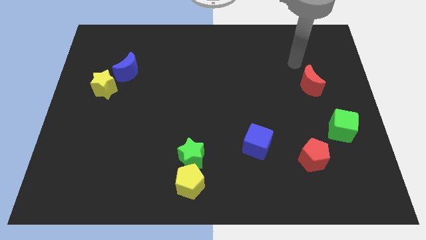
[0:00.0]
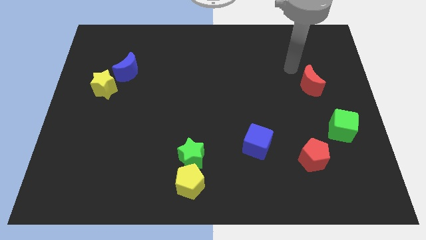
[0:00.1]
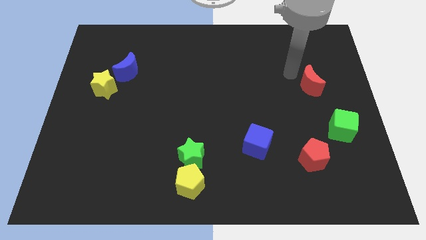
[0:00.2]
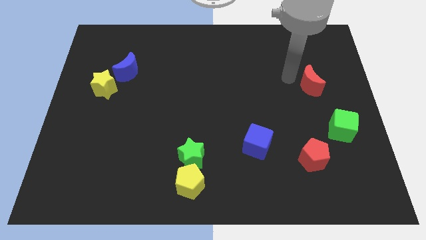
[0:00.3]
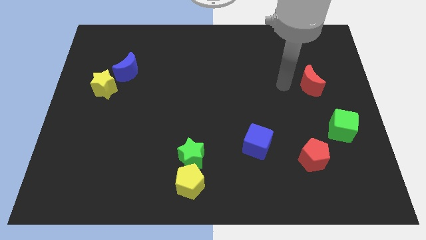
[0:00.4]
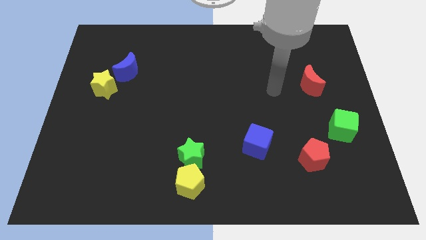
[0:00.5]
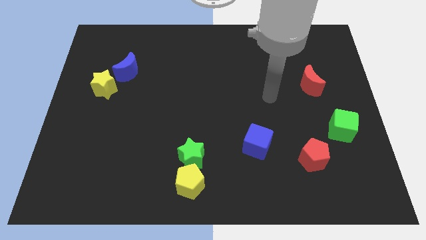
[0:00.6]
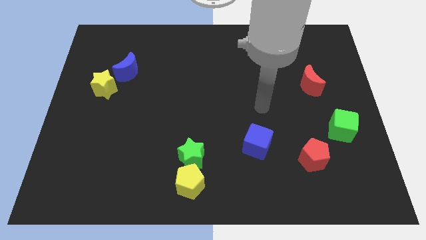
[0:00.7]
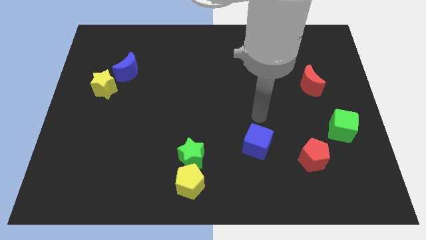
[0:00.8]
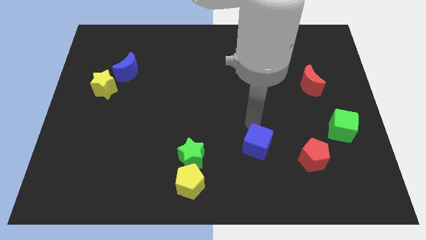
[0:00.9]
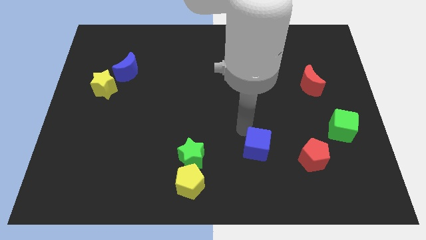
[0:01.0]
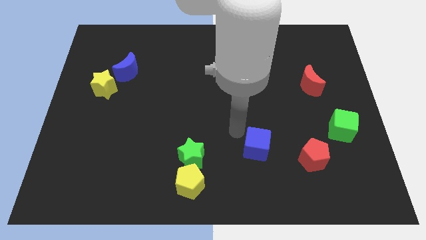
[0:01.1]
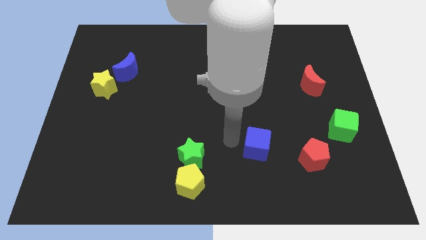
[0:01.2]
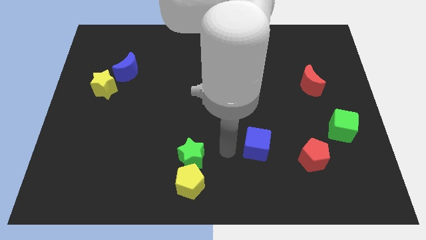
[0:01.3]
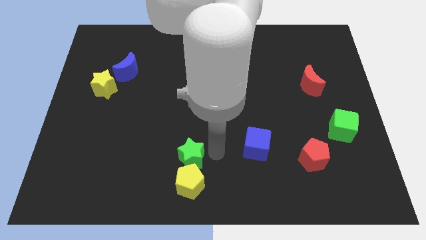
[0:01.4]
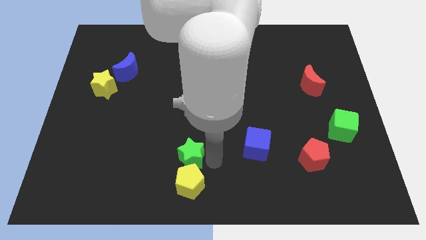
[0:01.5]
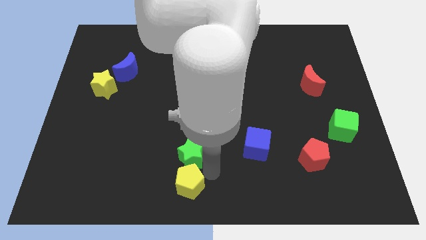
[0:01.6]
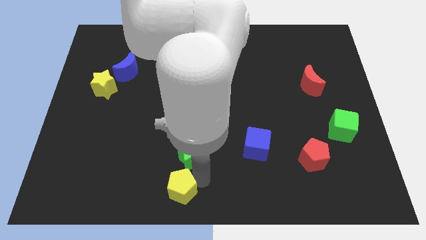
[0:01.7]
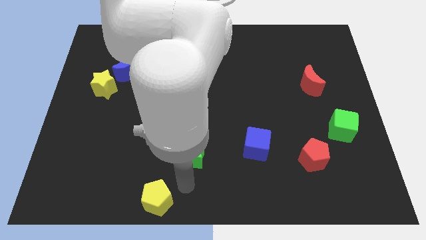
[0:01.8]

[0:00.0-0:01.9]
pull the green star apart from the yellow pentagon

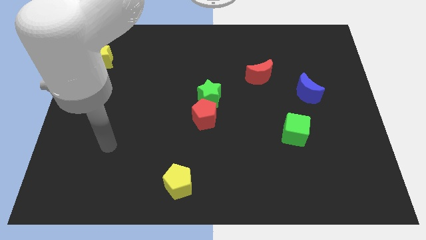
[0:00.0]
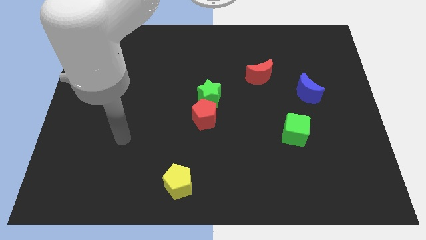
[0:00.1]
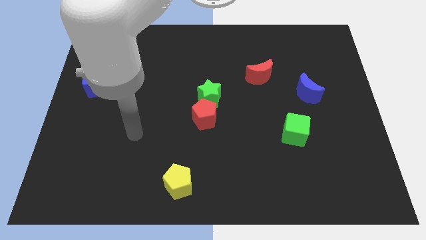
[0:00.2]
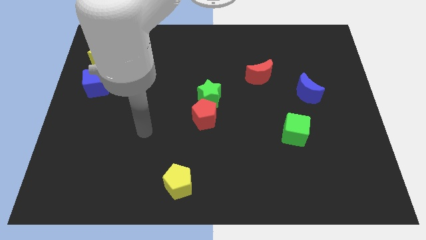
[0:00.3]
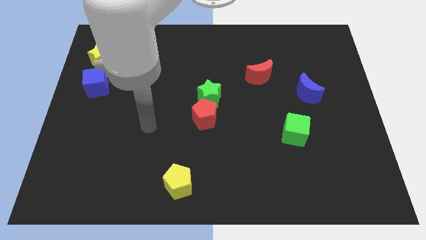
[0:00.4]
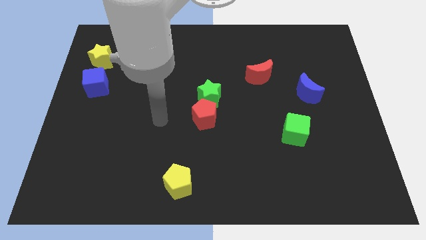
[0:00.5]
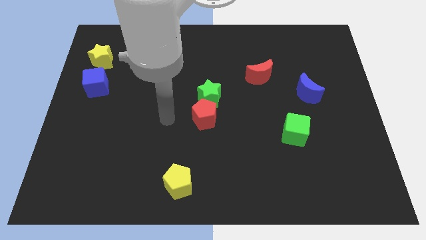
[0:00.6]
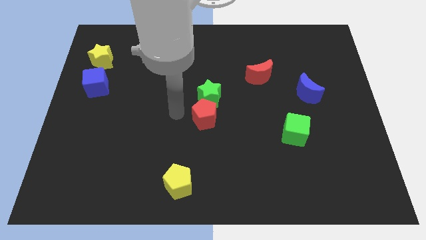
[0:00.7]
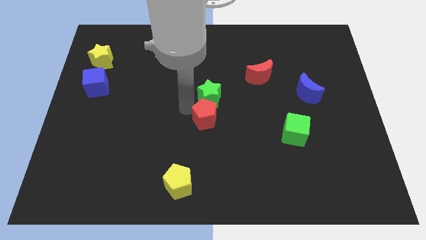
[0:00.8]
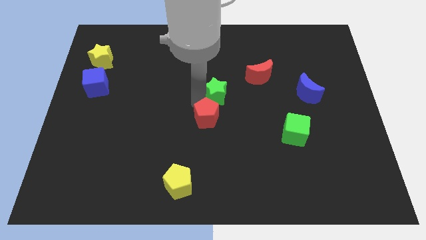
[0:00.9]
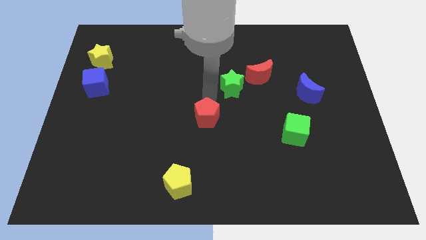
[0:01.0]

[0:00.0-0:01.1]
move the red pentagon away from the green star

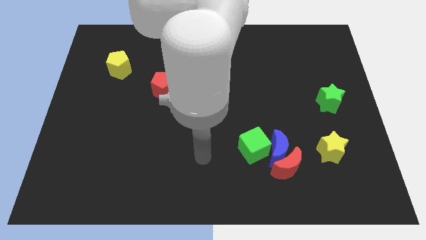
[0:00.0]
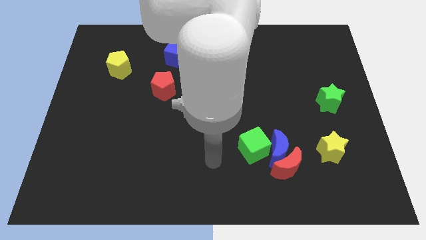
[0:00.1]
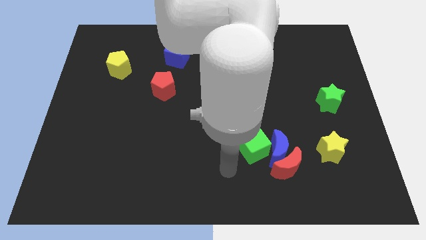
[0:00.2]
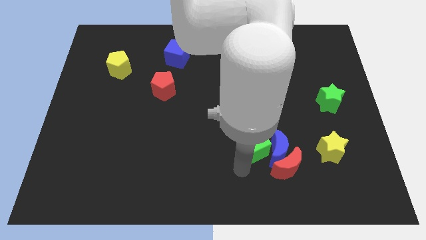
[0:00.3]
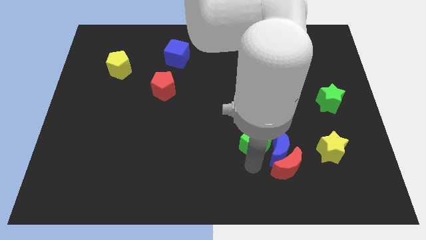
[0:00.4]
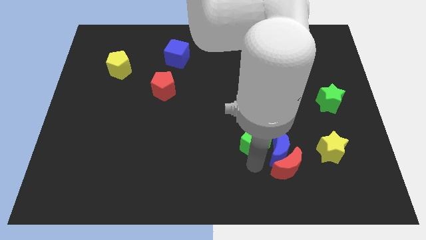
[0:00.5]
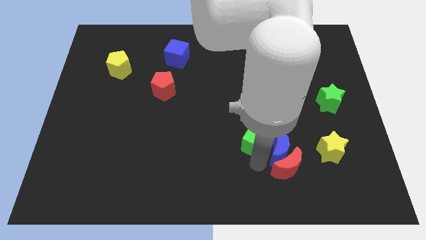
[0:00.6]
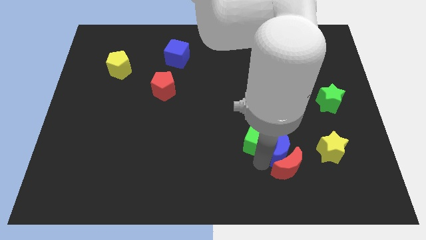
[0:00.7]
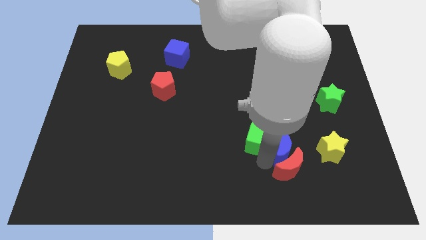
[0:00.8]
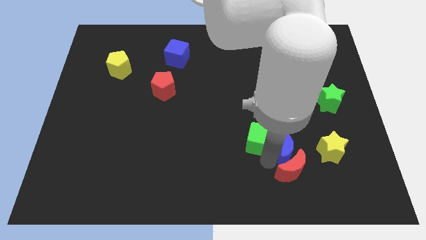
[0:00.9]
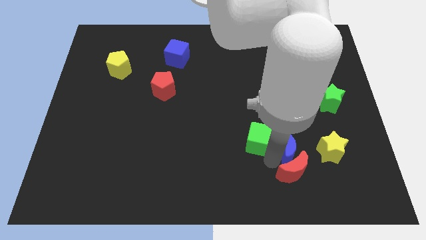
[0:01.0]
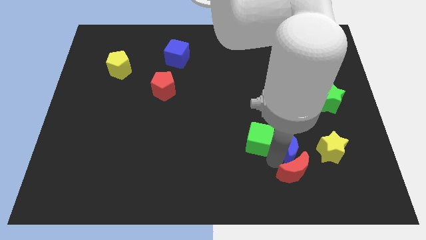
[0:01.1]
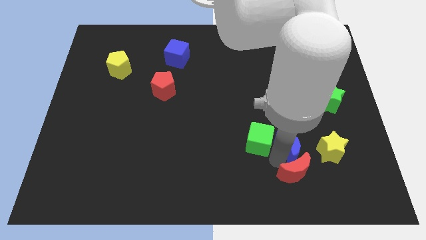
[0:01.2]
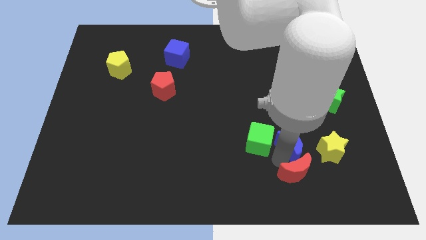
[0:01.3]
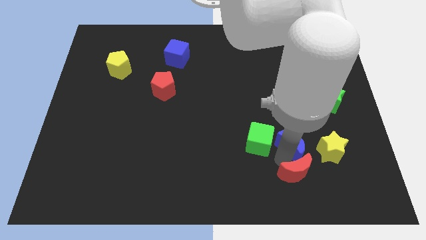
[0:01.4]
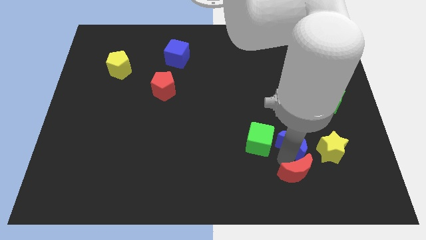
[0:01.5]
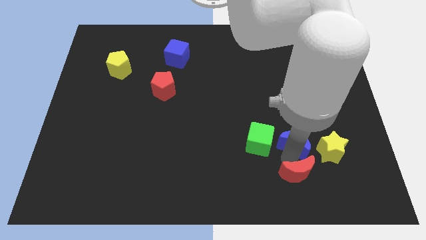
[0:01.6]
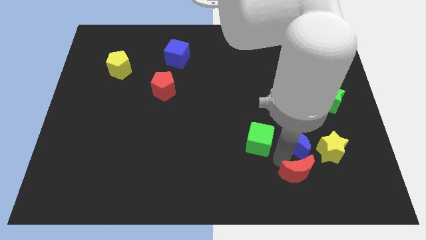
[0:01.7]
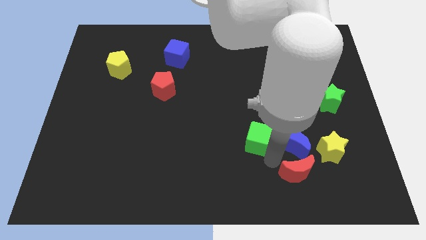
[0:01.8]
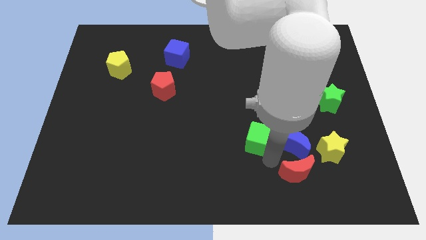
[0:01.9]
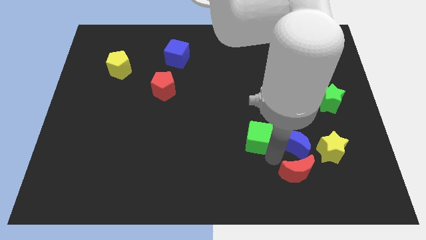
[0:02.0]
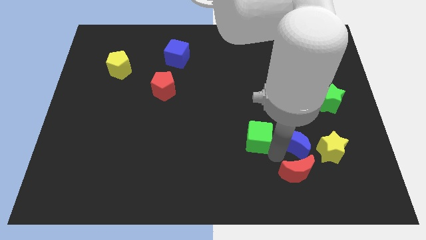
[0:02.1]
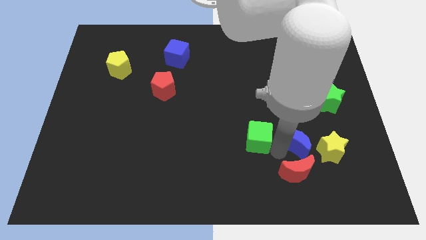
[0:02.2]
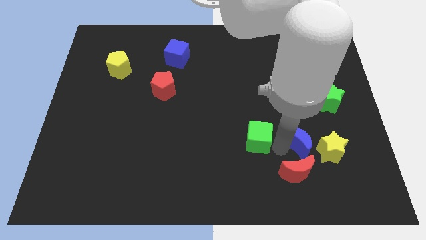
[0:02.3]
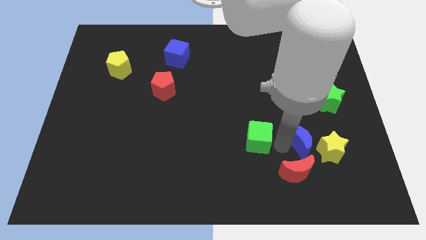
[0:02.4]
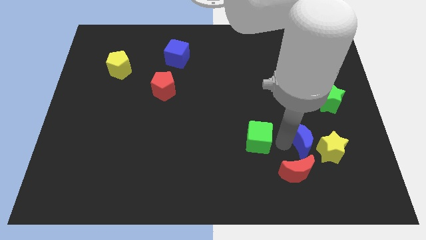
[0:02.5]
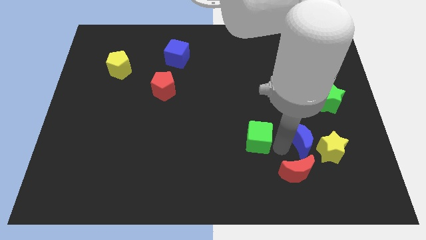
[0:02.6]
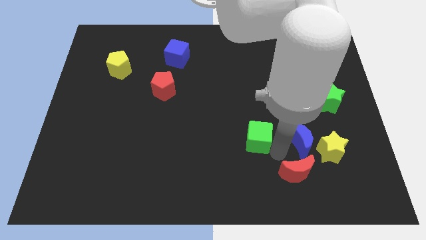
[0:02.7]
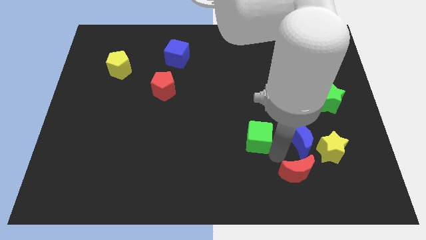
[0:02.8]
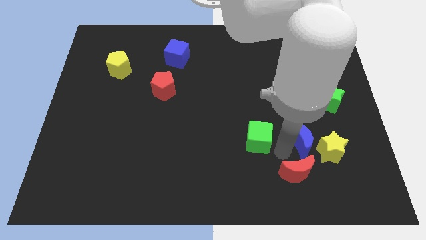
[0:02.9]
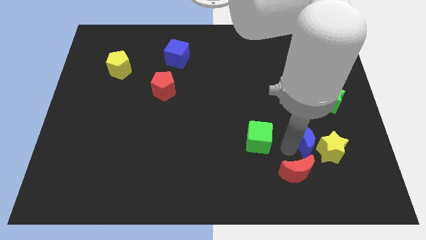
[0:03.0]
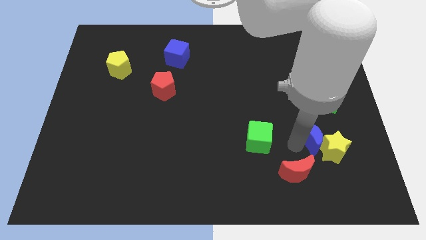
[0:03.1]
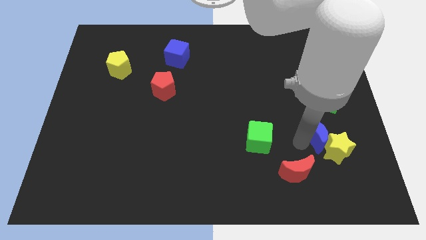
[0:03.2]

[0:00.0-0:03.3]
pull the blue moon apart from the red moon and green cube

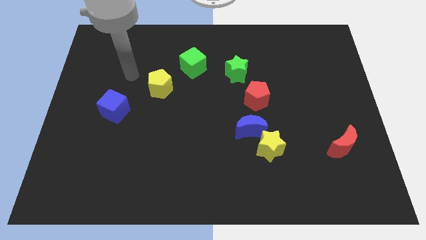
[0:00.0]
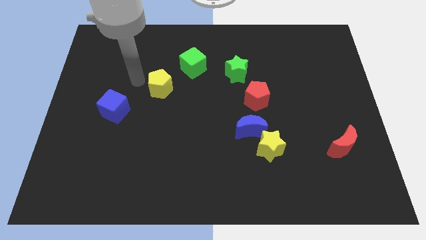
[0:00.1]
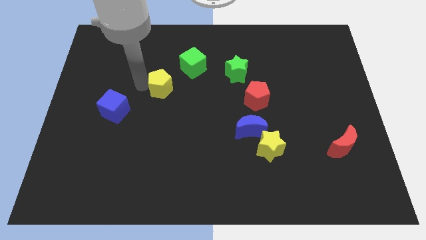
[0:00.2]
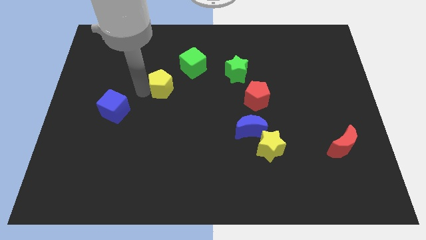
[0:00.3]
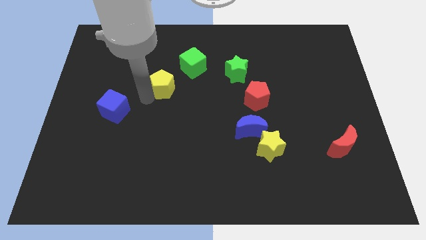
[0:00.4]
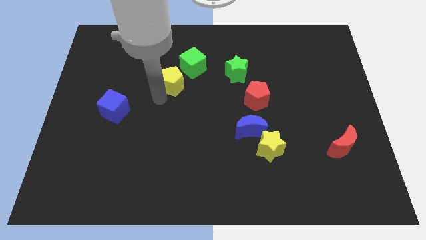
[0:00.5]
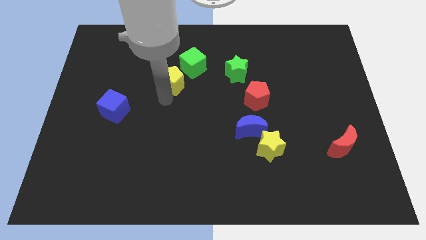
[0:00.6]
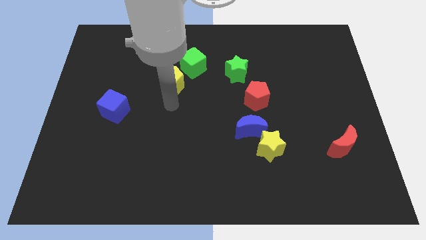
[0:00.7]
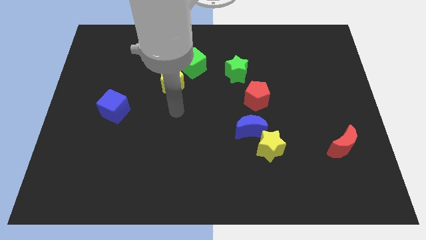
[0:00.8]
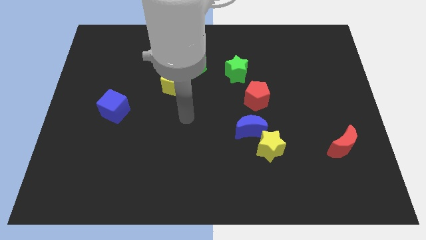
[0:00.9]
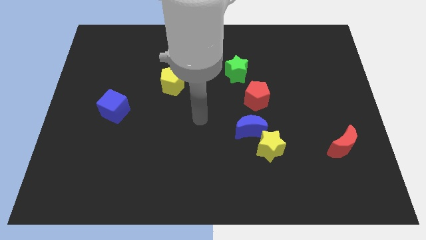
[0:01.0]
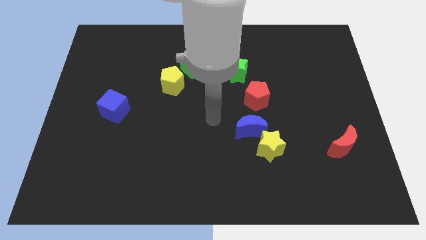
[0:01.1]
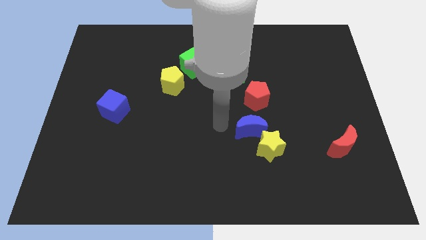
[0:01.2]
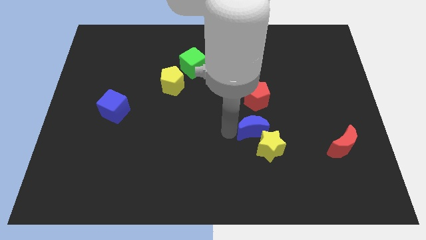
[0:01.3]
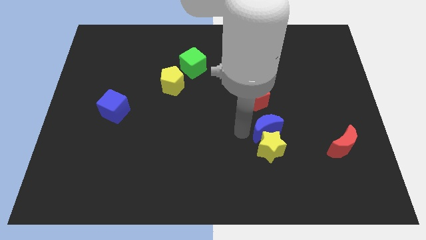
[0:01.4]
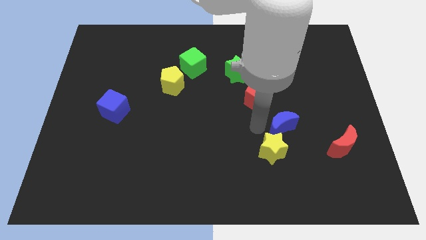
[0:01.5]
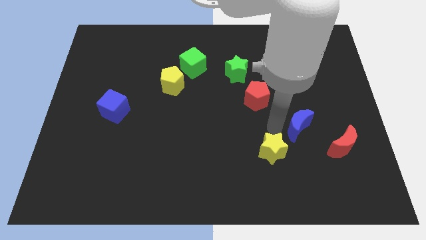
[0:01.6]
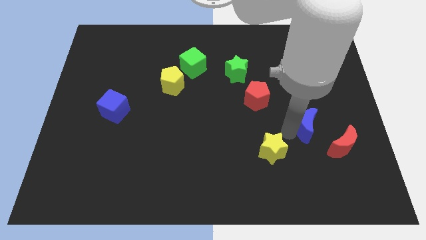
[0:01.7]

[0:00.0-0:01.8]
pull the yellow star apart from the blue moon

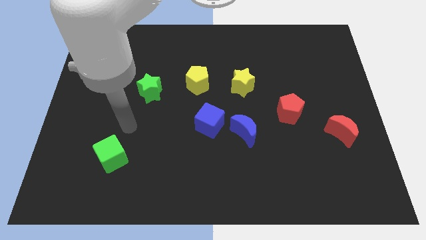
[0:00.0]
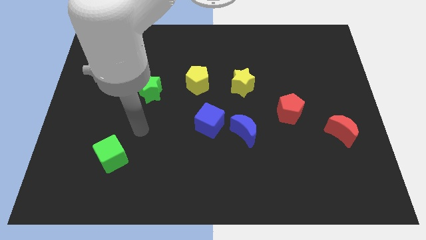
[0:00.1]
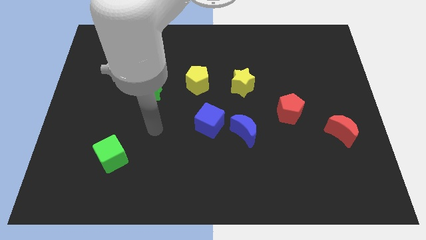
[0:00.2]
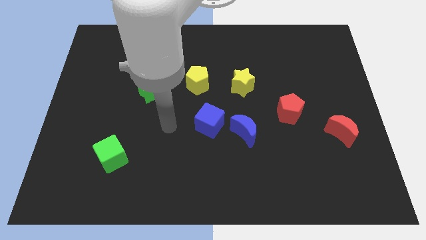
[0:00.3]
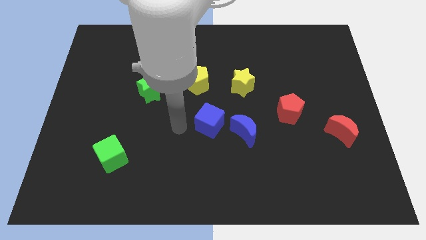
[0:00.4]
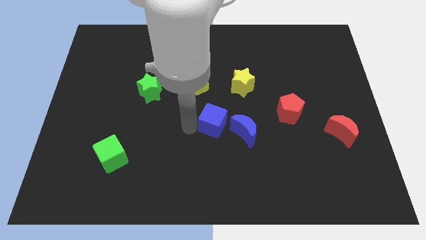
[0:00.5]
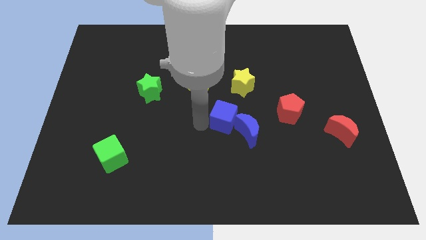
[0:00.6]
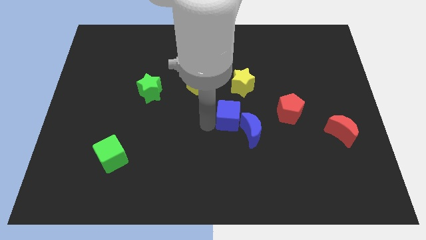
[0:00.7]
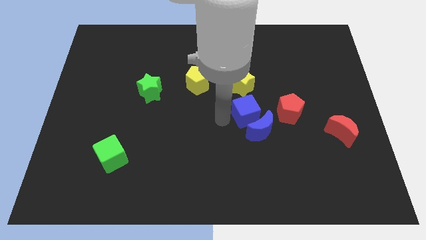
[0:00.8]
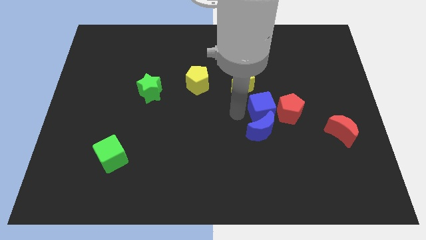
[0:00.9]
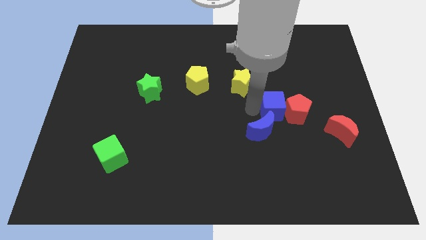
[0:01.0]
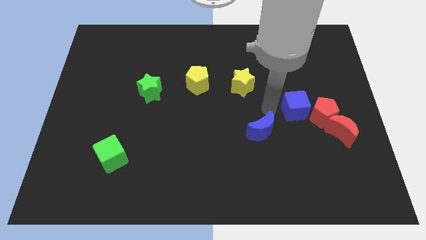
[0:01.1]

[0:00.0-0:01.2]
pull the blue moon apart from the blue cube
